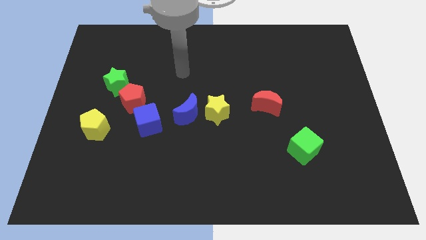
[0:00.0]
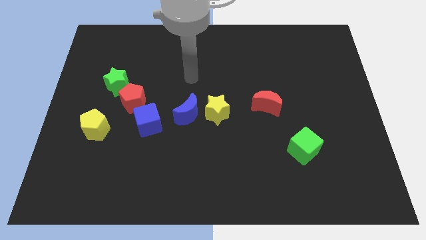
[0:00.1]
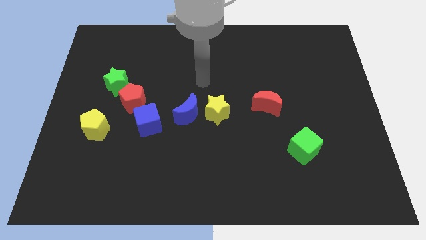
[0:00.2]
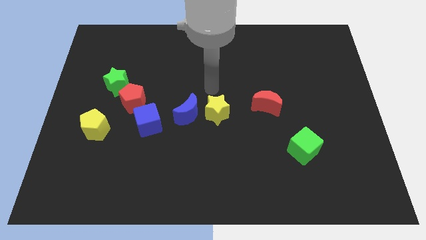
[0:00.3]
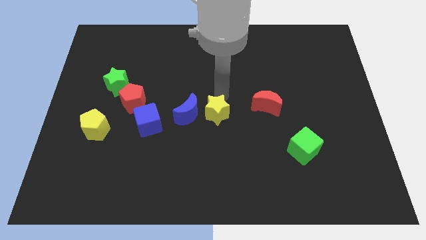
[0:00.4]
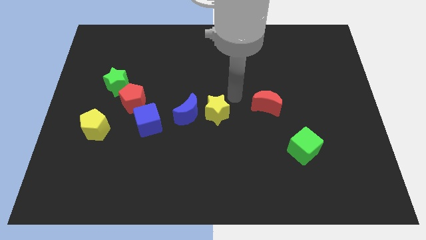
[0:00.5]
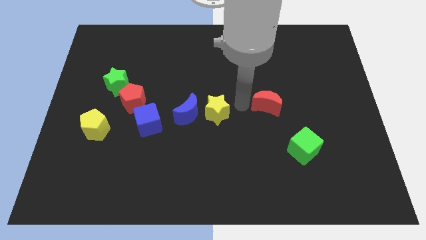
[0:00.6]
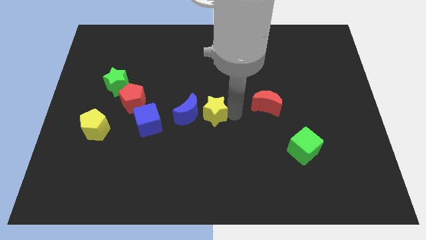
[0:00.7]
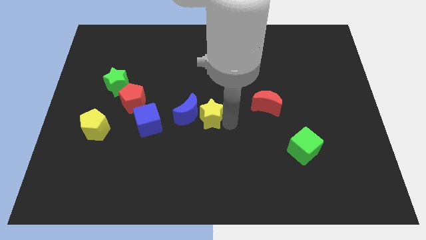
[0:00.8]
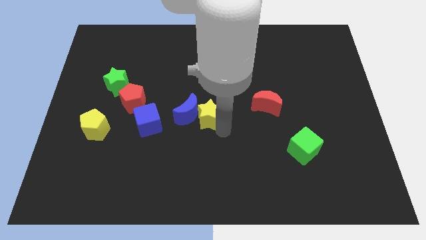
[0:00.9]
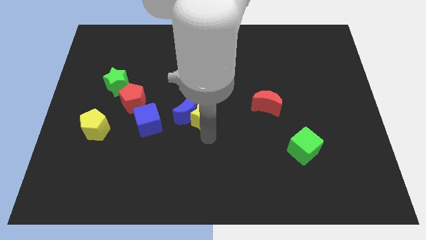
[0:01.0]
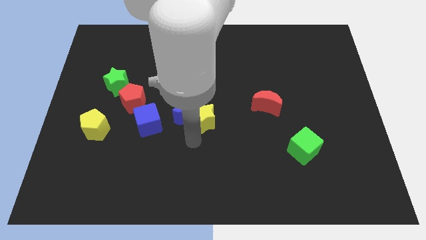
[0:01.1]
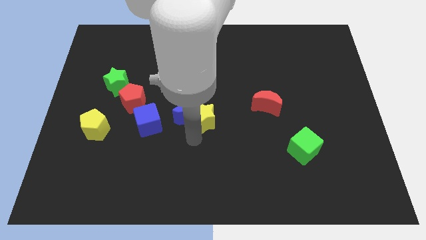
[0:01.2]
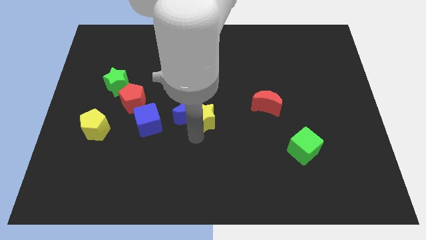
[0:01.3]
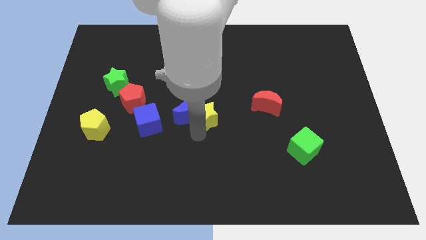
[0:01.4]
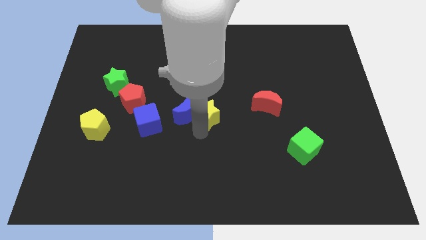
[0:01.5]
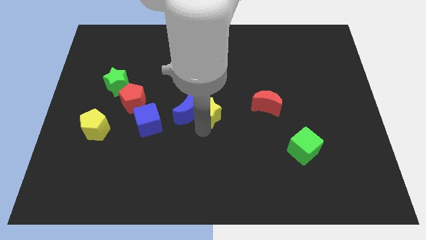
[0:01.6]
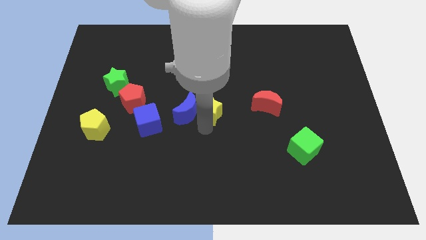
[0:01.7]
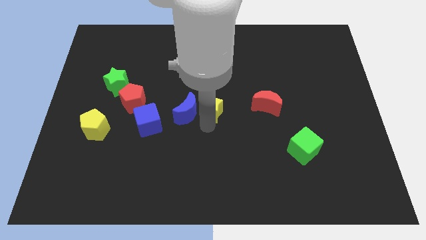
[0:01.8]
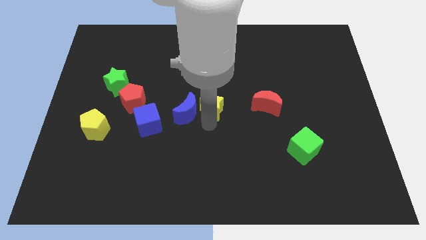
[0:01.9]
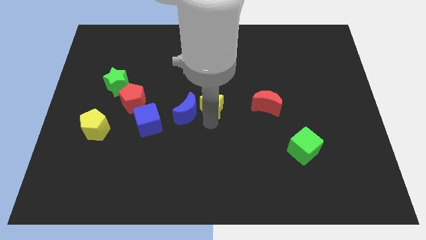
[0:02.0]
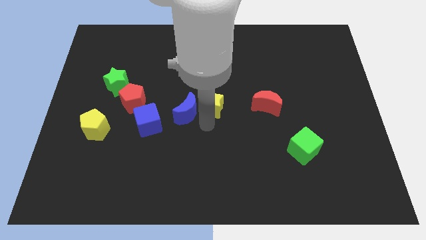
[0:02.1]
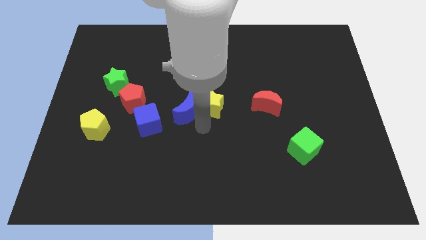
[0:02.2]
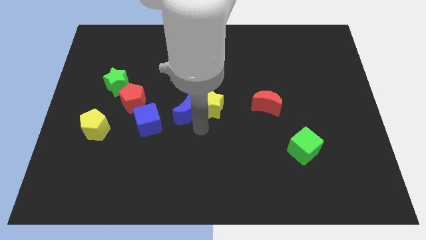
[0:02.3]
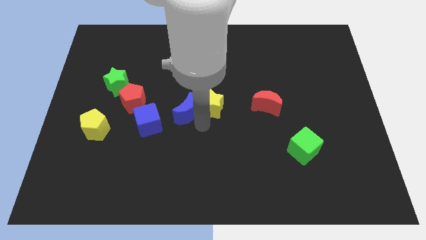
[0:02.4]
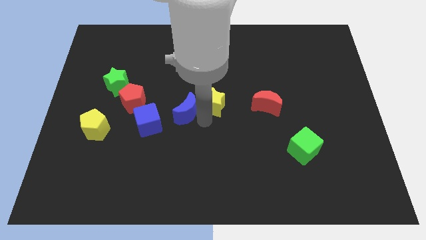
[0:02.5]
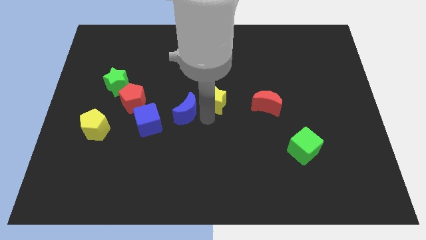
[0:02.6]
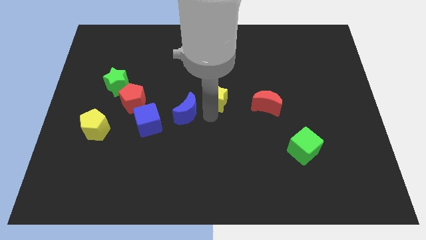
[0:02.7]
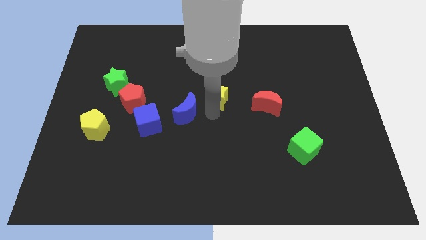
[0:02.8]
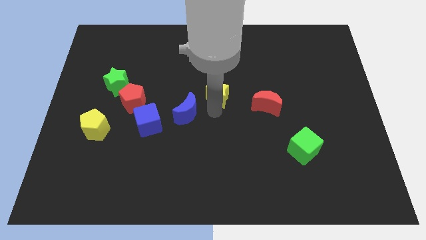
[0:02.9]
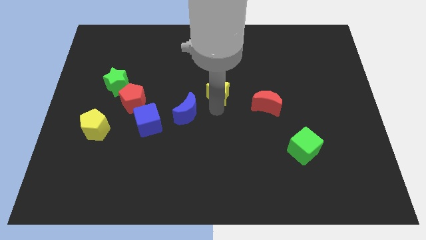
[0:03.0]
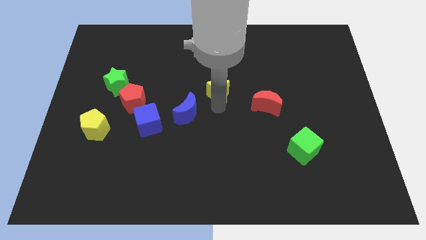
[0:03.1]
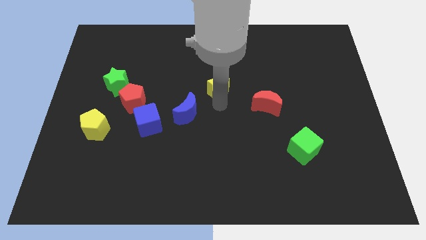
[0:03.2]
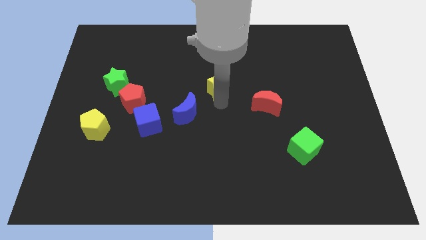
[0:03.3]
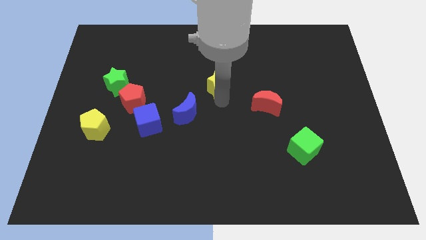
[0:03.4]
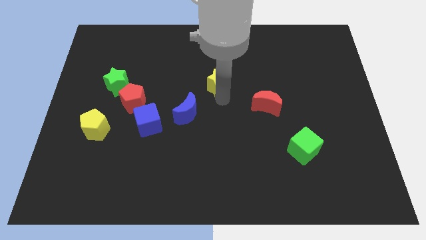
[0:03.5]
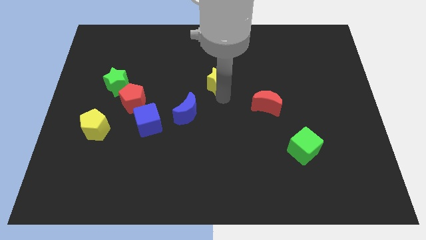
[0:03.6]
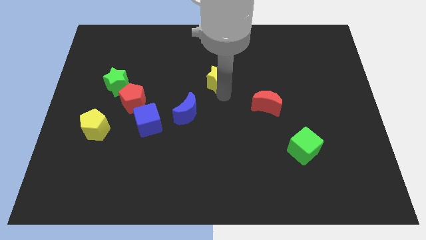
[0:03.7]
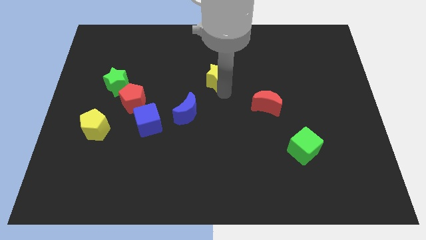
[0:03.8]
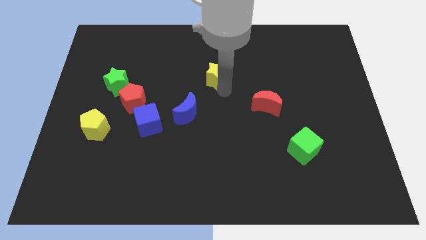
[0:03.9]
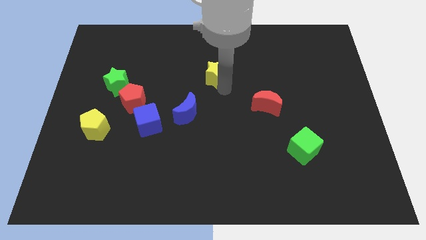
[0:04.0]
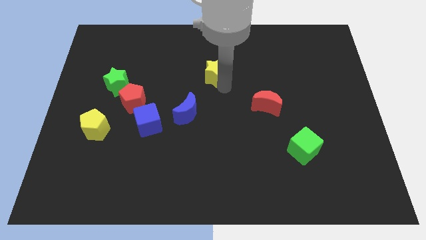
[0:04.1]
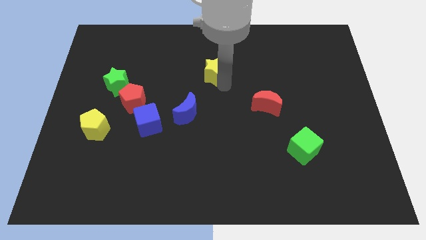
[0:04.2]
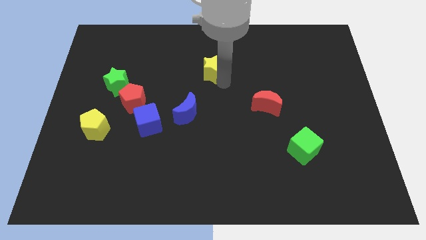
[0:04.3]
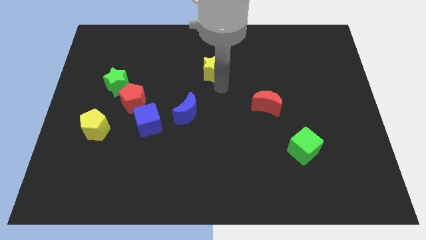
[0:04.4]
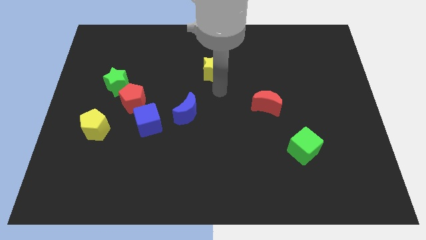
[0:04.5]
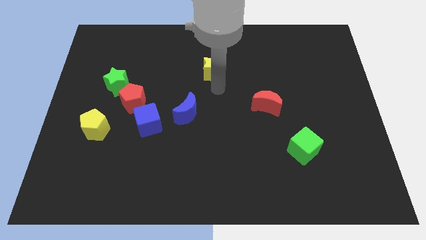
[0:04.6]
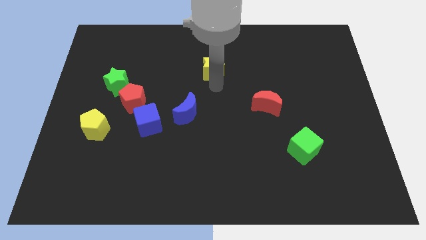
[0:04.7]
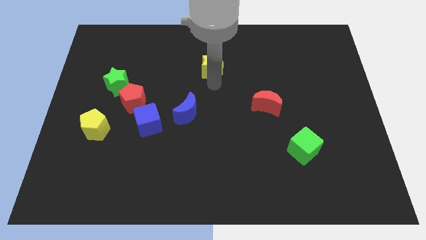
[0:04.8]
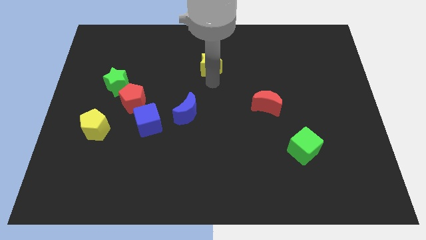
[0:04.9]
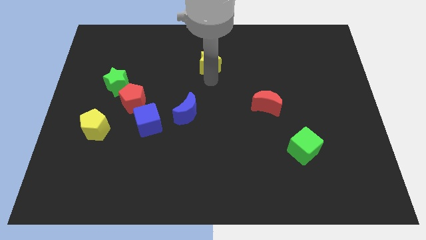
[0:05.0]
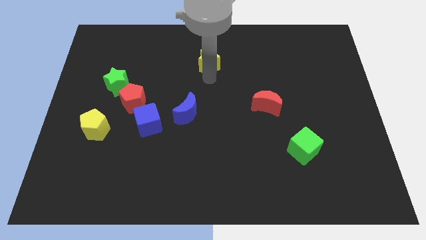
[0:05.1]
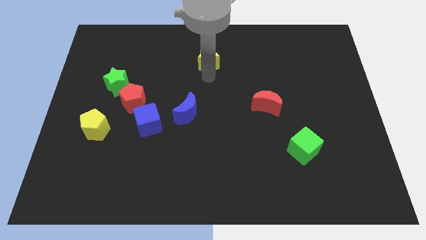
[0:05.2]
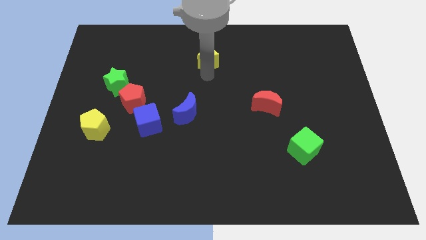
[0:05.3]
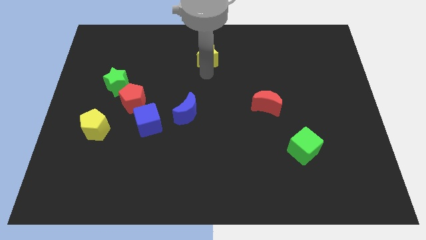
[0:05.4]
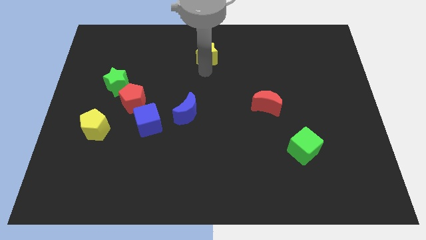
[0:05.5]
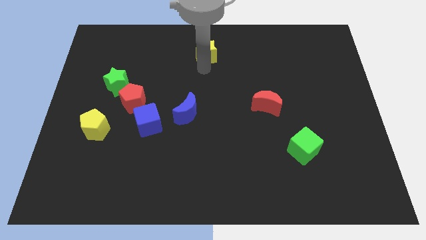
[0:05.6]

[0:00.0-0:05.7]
slide the yellow star to the top side

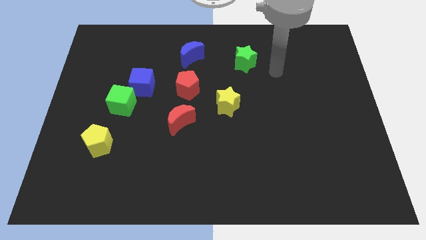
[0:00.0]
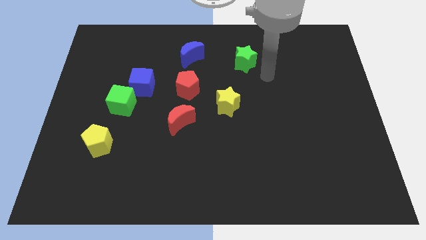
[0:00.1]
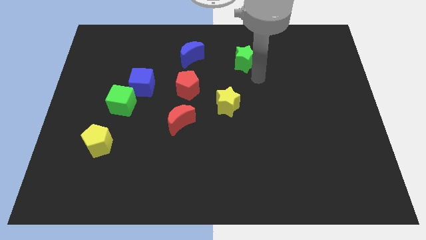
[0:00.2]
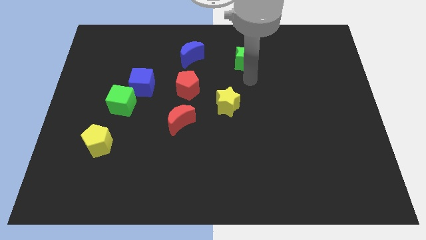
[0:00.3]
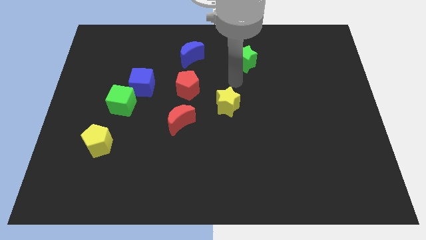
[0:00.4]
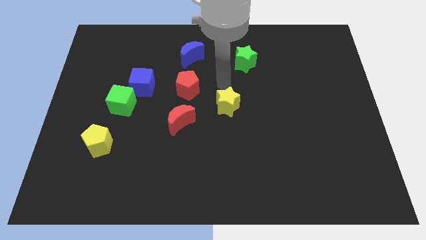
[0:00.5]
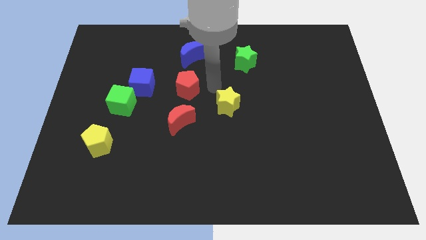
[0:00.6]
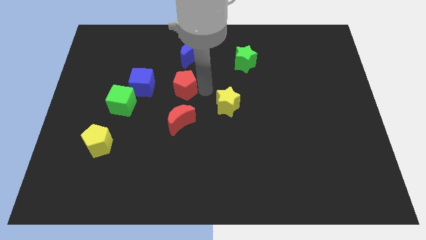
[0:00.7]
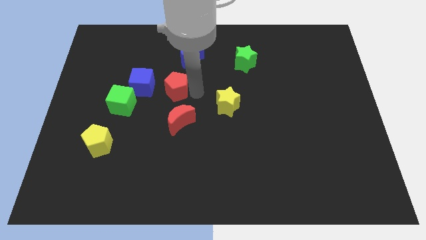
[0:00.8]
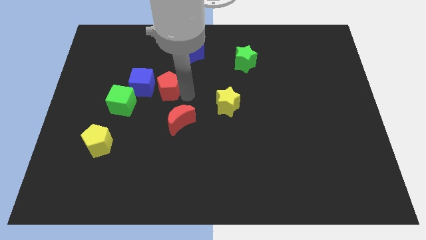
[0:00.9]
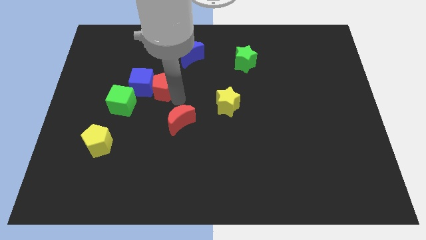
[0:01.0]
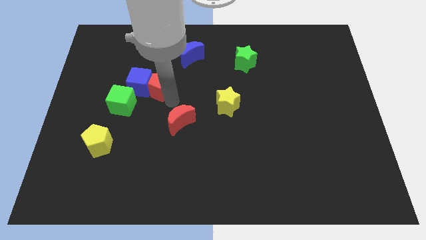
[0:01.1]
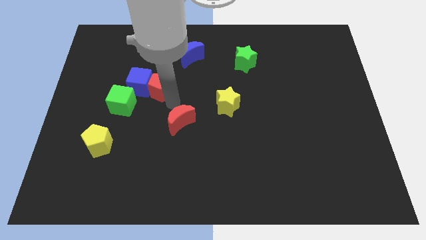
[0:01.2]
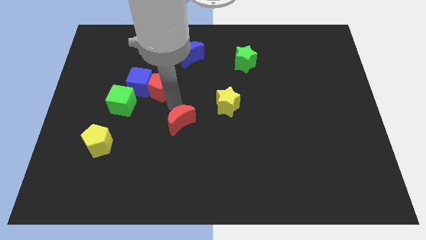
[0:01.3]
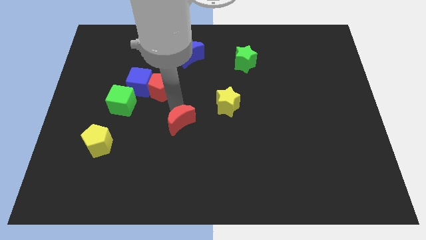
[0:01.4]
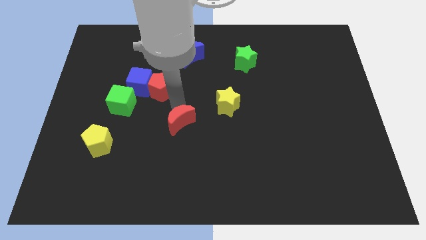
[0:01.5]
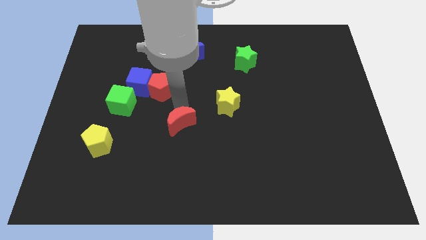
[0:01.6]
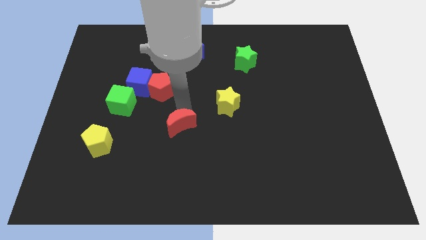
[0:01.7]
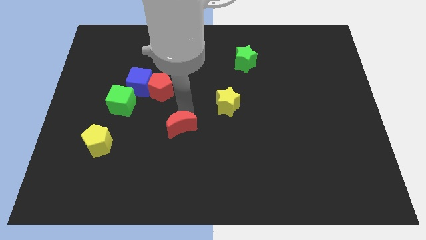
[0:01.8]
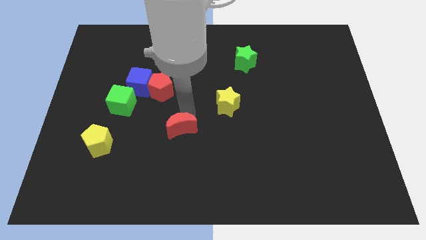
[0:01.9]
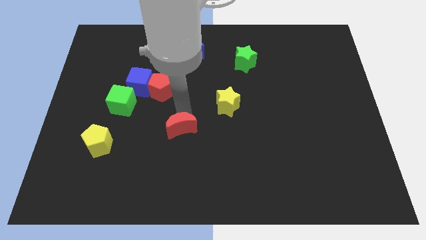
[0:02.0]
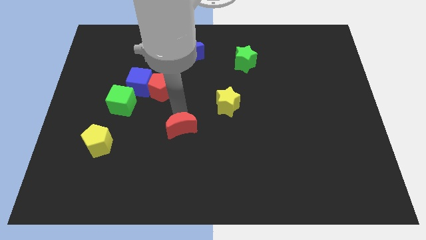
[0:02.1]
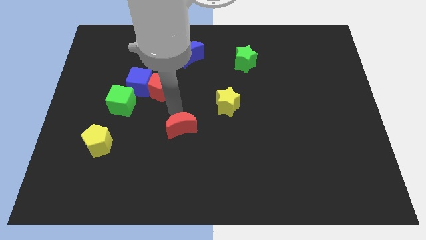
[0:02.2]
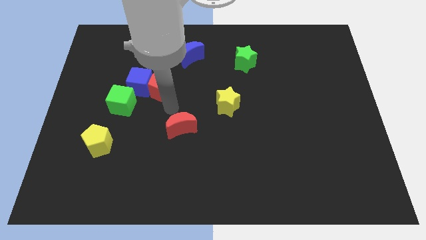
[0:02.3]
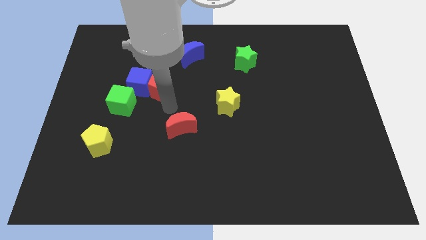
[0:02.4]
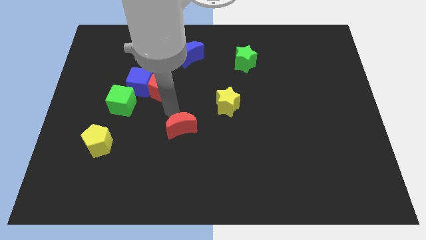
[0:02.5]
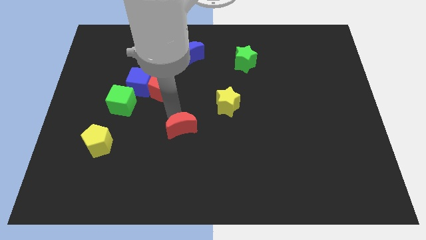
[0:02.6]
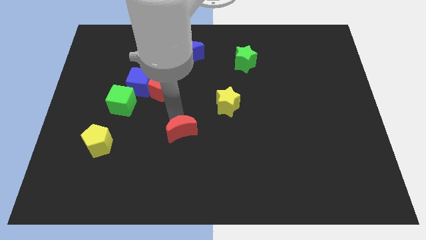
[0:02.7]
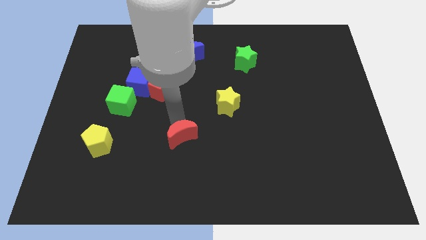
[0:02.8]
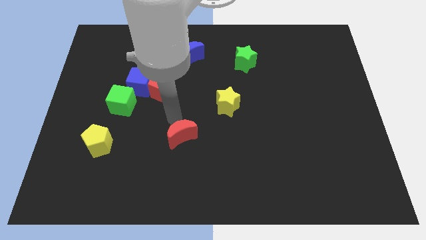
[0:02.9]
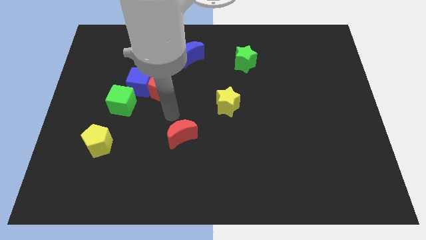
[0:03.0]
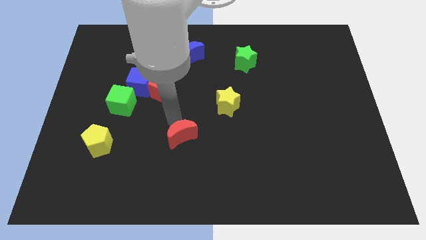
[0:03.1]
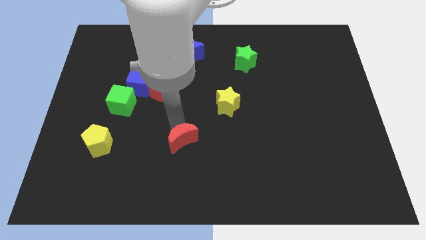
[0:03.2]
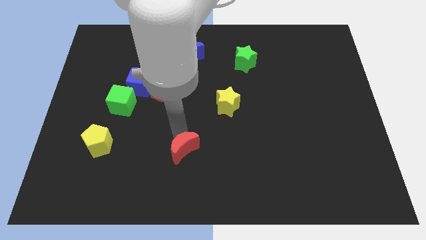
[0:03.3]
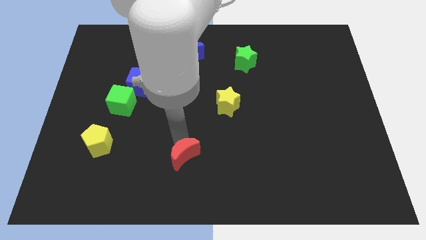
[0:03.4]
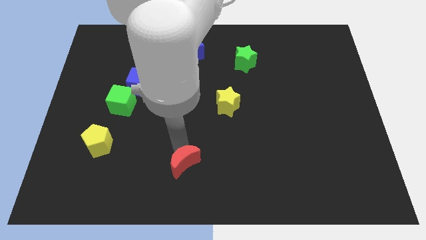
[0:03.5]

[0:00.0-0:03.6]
slide the red moon to the bottom
